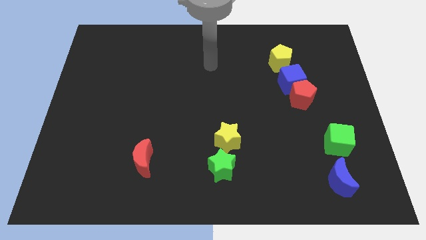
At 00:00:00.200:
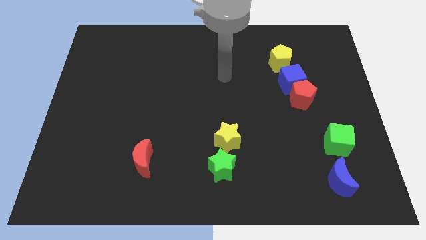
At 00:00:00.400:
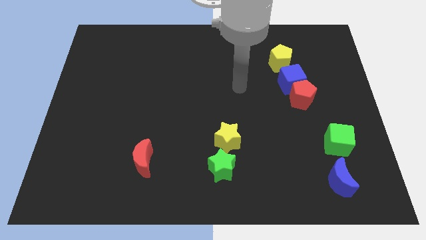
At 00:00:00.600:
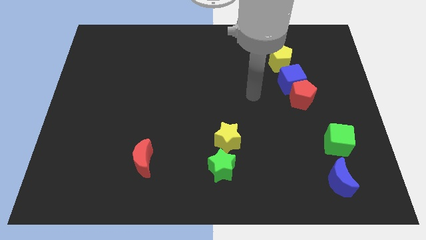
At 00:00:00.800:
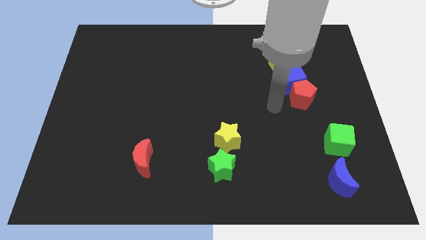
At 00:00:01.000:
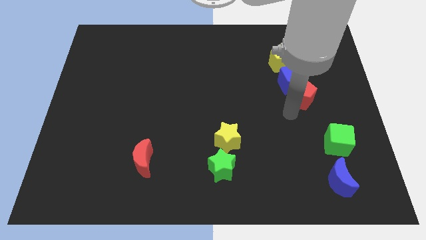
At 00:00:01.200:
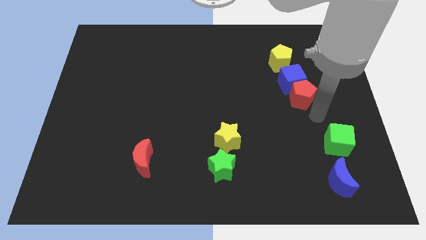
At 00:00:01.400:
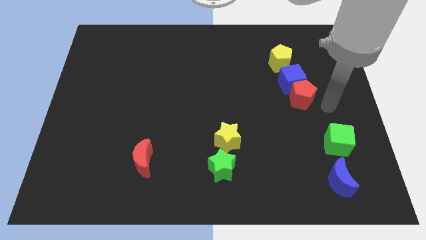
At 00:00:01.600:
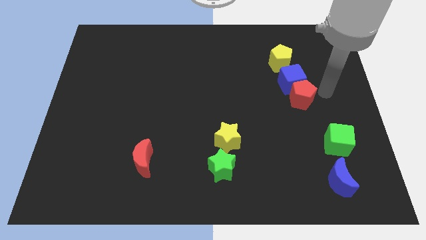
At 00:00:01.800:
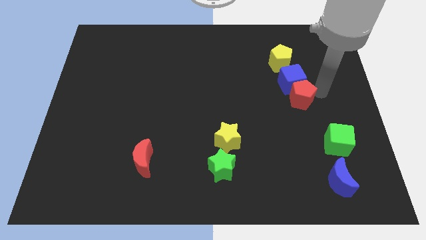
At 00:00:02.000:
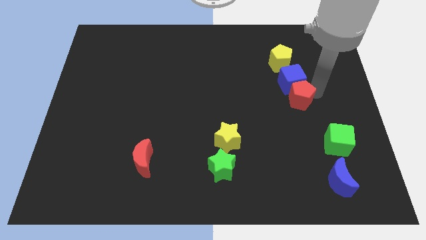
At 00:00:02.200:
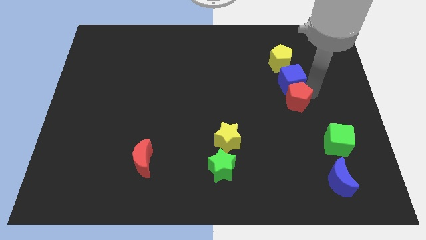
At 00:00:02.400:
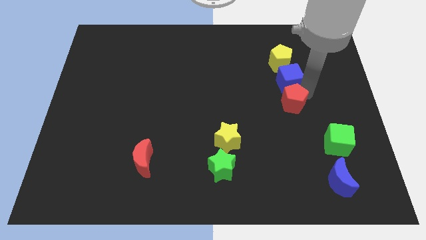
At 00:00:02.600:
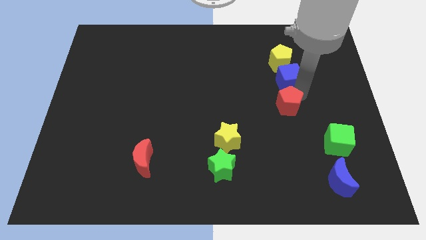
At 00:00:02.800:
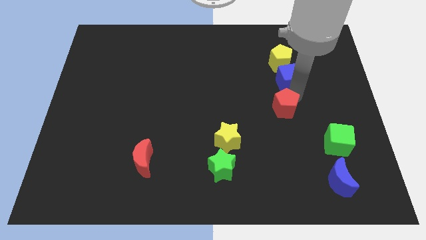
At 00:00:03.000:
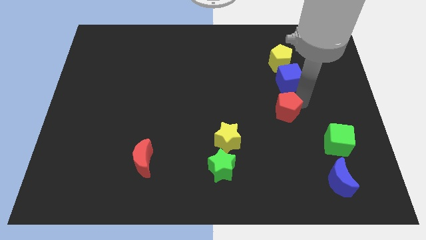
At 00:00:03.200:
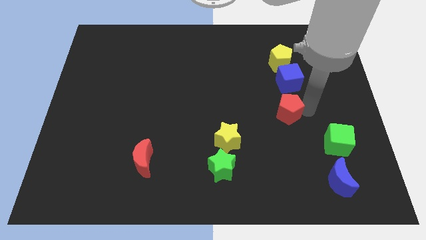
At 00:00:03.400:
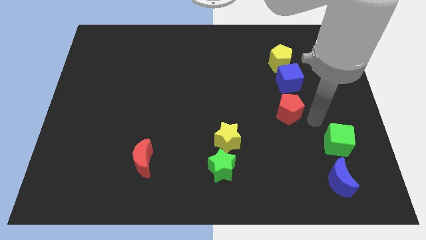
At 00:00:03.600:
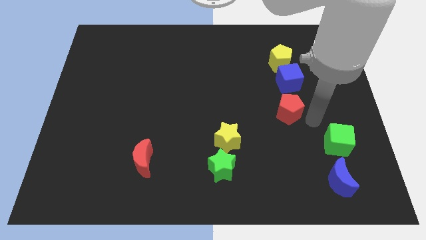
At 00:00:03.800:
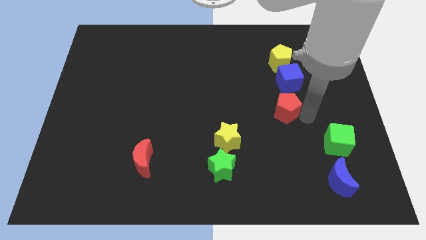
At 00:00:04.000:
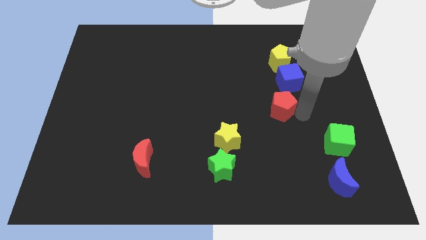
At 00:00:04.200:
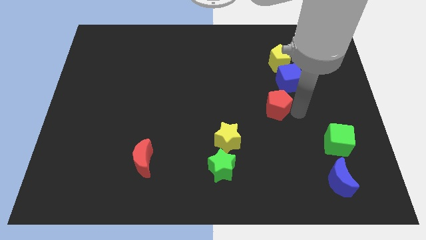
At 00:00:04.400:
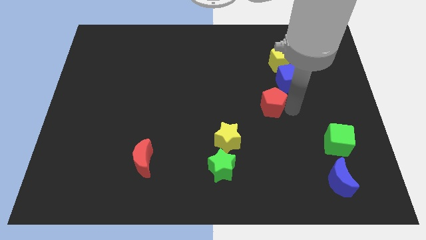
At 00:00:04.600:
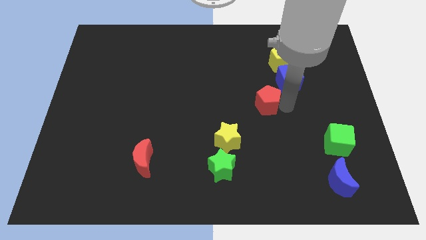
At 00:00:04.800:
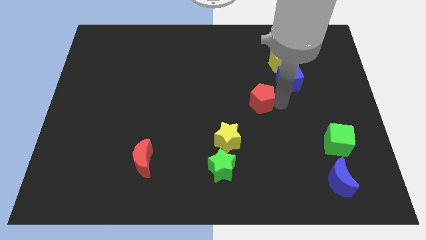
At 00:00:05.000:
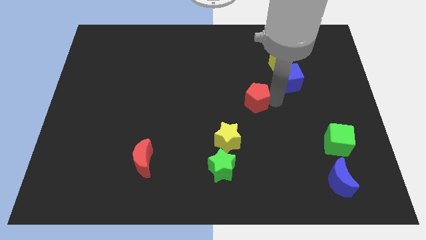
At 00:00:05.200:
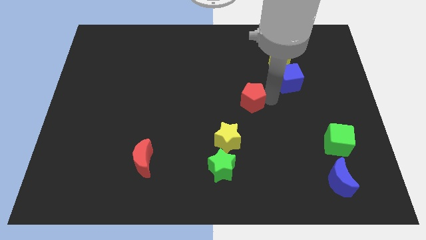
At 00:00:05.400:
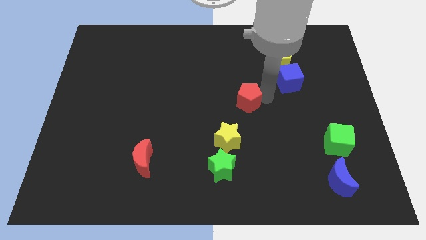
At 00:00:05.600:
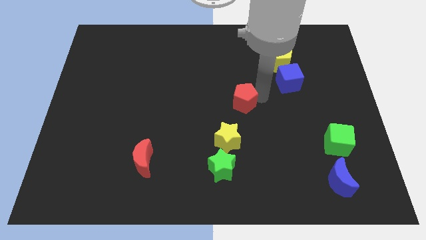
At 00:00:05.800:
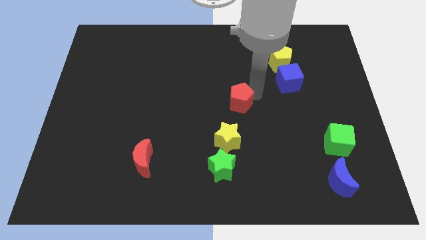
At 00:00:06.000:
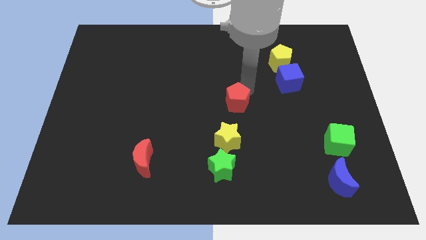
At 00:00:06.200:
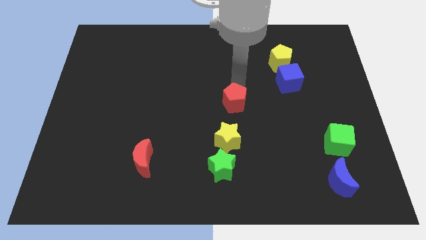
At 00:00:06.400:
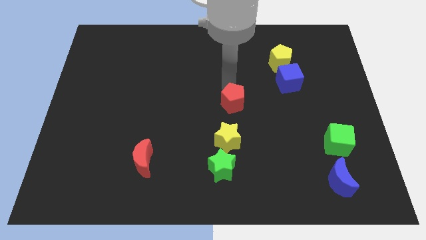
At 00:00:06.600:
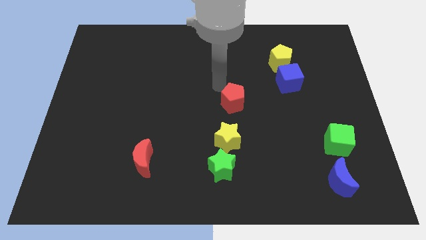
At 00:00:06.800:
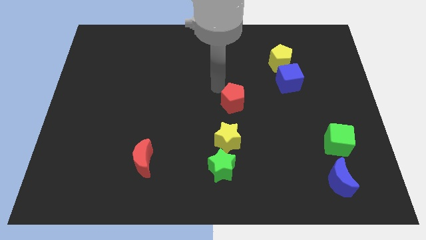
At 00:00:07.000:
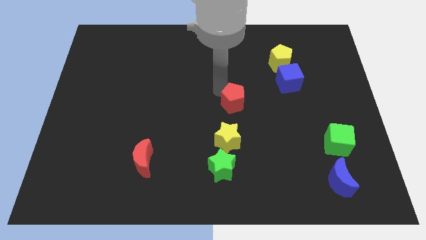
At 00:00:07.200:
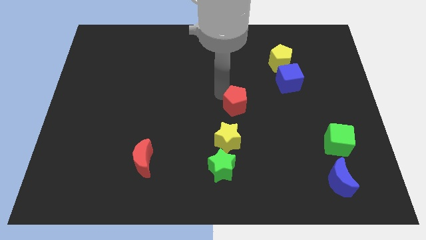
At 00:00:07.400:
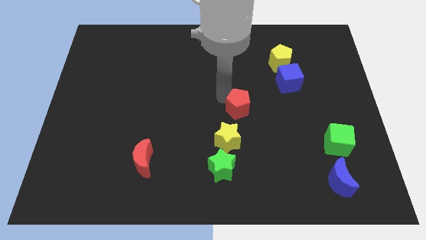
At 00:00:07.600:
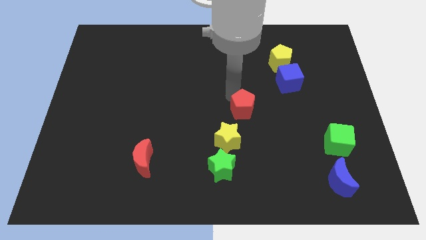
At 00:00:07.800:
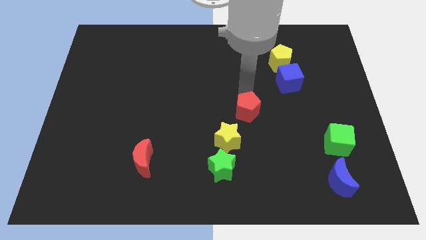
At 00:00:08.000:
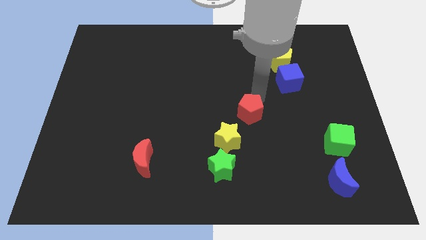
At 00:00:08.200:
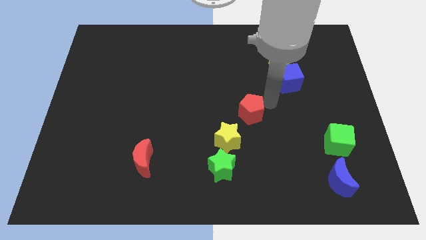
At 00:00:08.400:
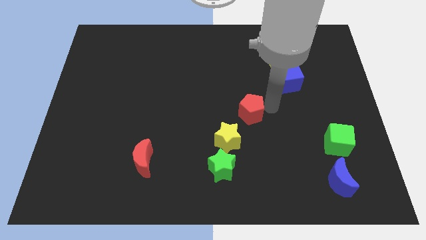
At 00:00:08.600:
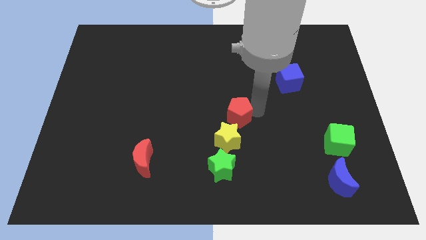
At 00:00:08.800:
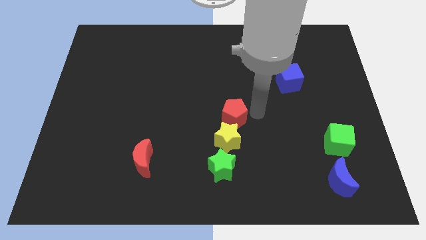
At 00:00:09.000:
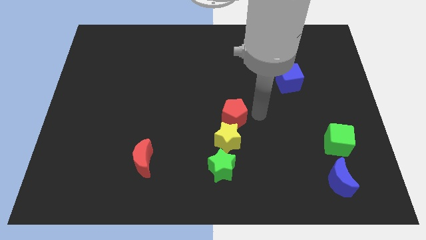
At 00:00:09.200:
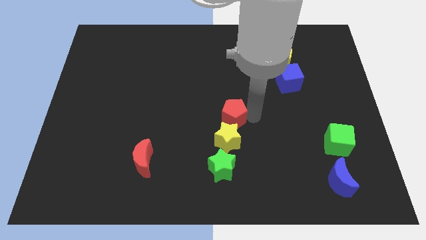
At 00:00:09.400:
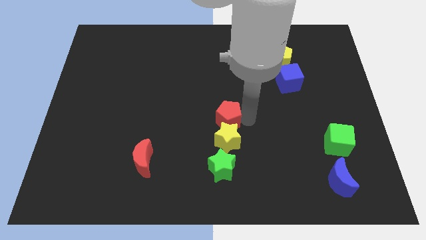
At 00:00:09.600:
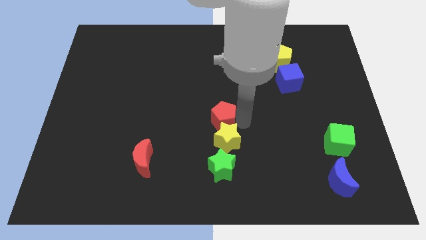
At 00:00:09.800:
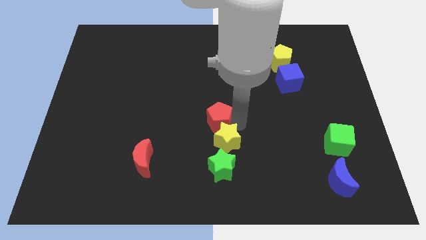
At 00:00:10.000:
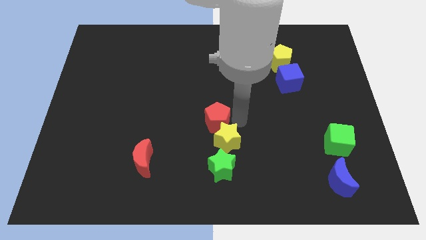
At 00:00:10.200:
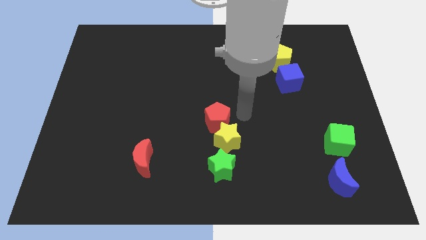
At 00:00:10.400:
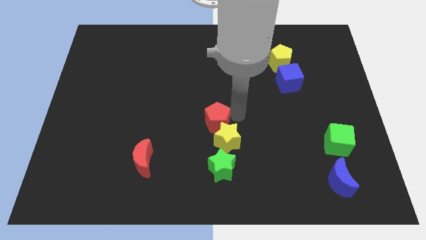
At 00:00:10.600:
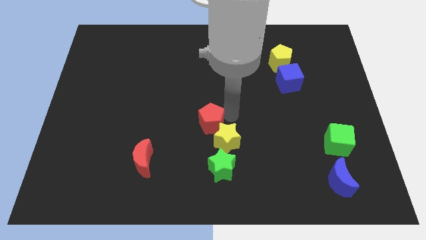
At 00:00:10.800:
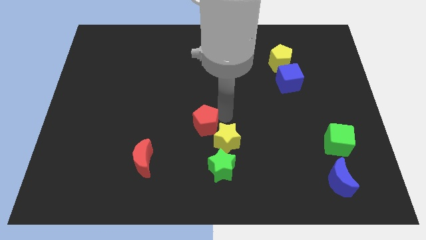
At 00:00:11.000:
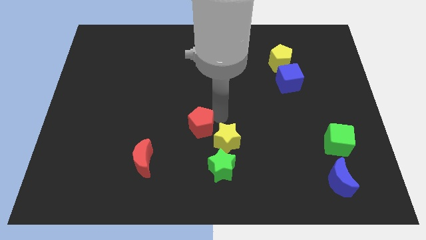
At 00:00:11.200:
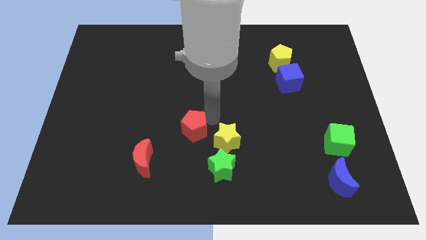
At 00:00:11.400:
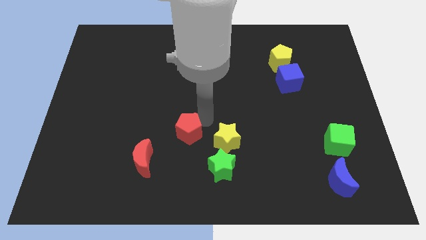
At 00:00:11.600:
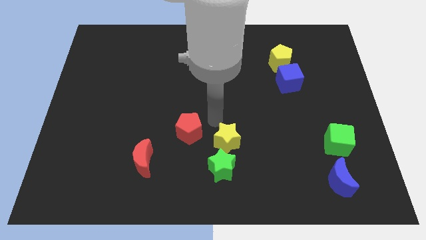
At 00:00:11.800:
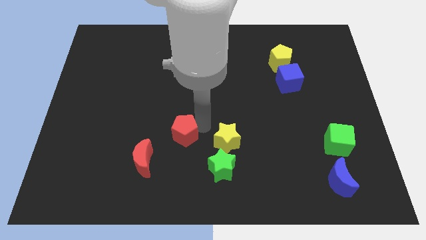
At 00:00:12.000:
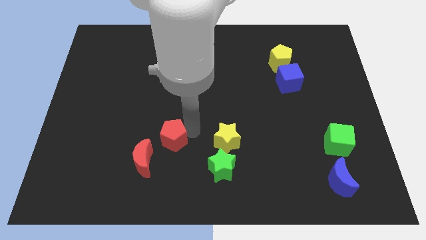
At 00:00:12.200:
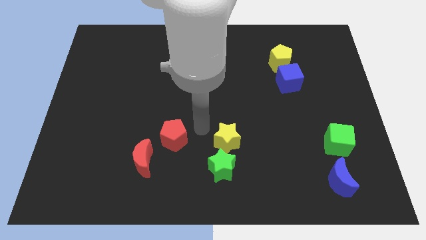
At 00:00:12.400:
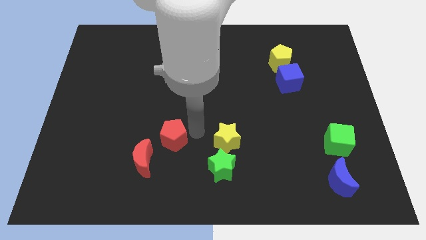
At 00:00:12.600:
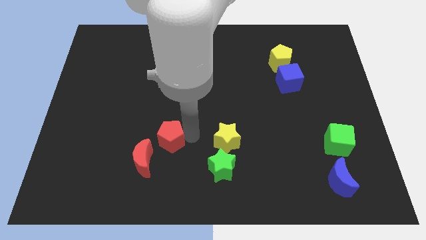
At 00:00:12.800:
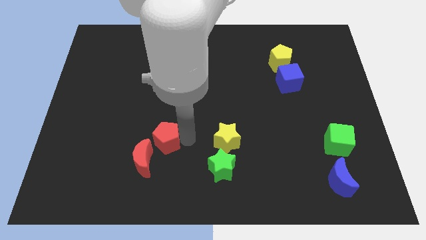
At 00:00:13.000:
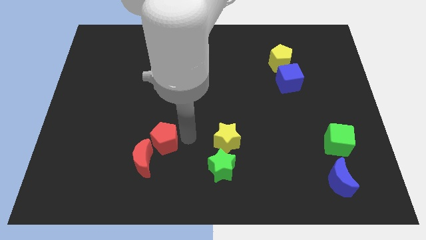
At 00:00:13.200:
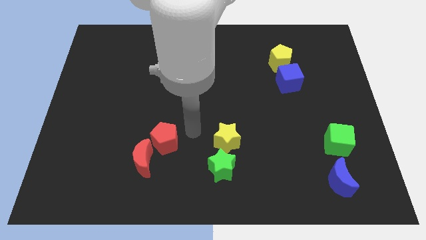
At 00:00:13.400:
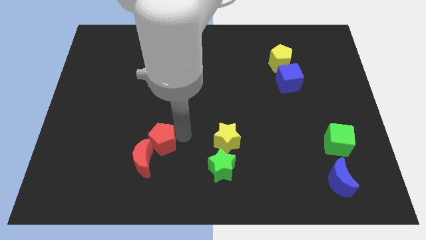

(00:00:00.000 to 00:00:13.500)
put the red pentagon towards the red moon

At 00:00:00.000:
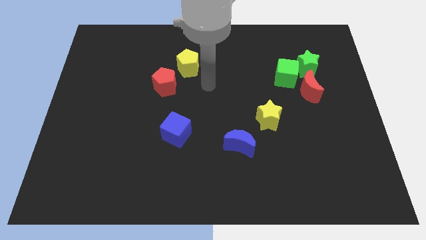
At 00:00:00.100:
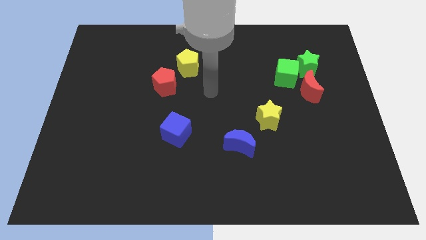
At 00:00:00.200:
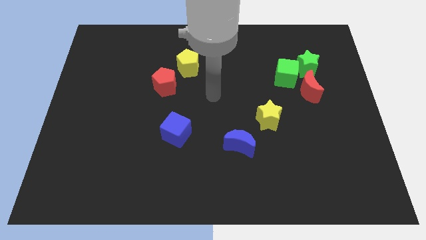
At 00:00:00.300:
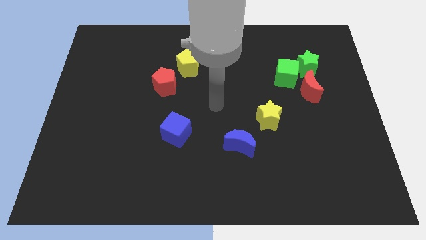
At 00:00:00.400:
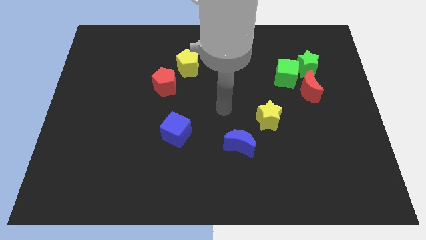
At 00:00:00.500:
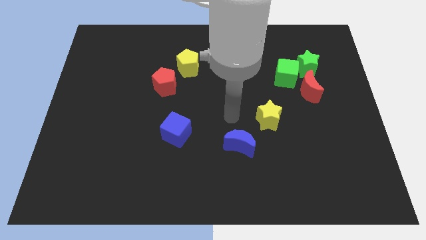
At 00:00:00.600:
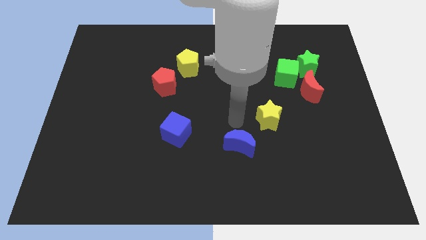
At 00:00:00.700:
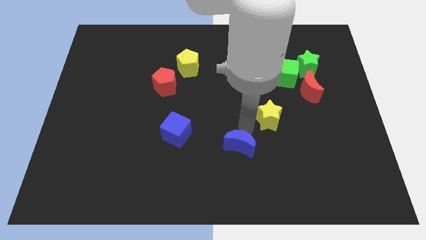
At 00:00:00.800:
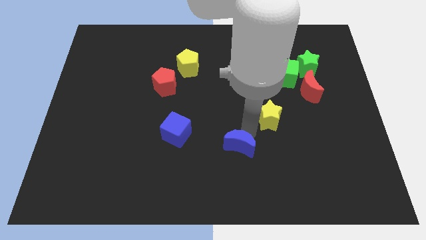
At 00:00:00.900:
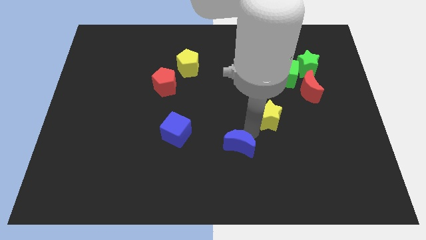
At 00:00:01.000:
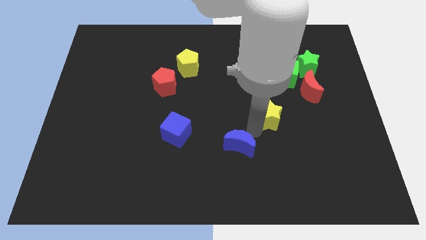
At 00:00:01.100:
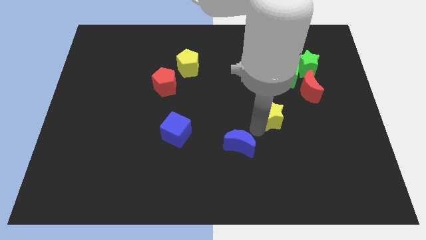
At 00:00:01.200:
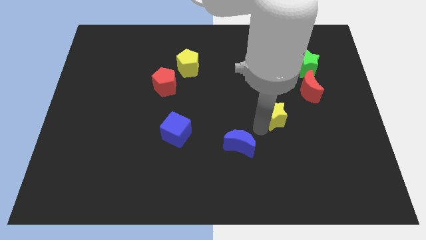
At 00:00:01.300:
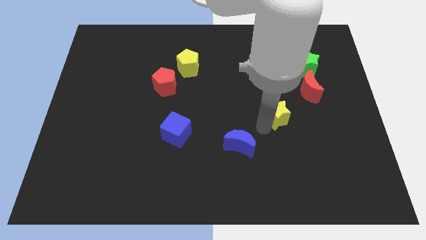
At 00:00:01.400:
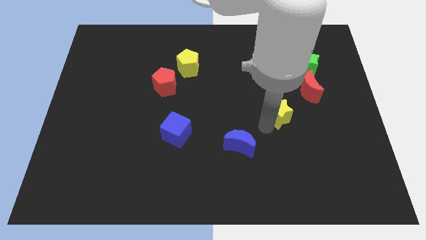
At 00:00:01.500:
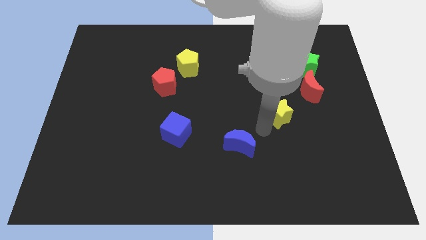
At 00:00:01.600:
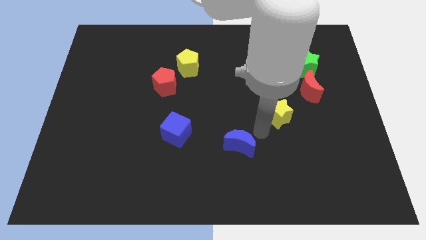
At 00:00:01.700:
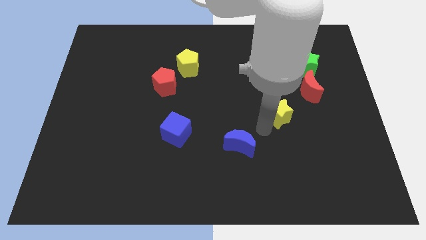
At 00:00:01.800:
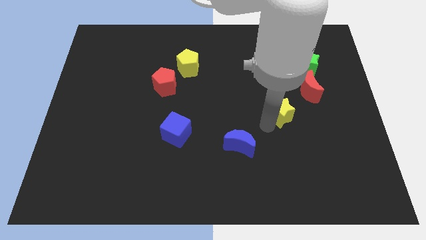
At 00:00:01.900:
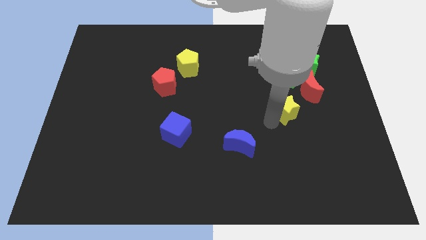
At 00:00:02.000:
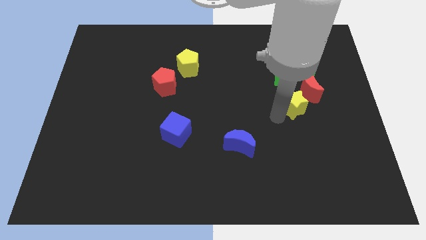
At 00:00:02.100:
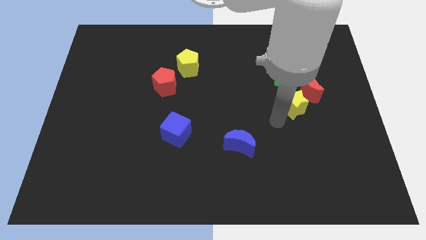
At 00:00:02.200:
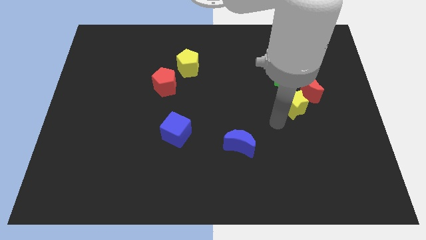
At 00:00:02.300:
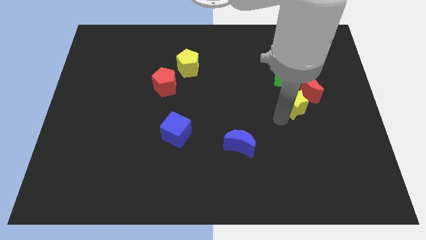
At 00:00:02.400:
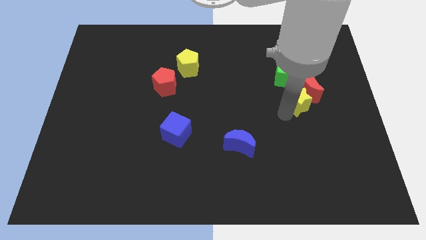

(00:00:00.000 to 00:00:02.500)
put the yellow star towards the red moon
